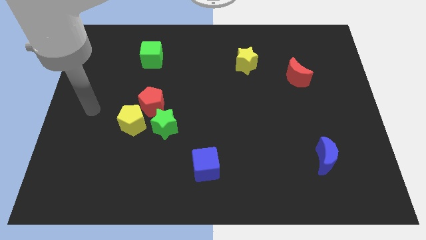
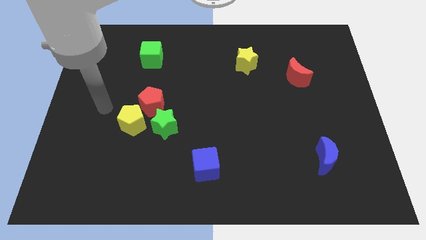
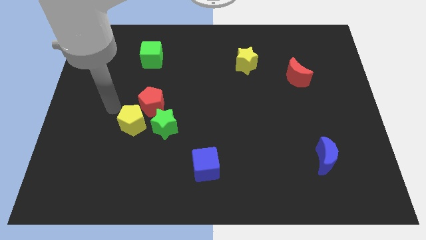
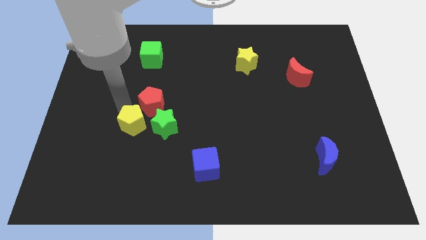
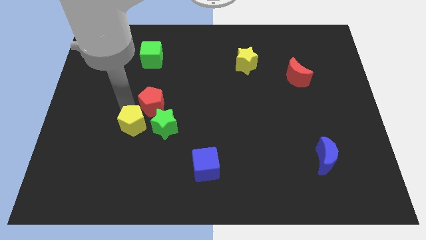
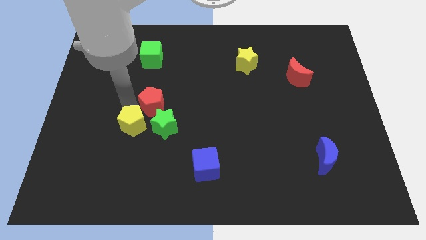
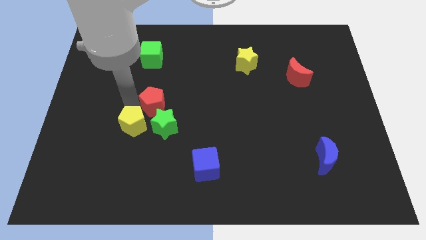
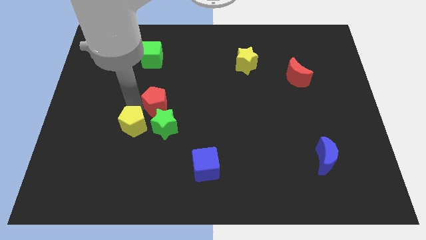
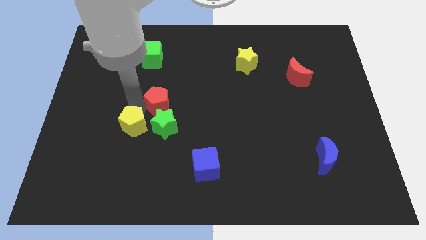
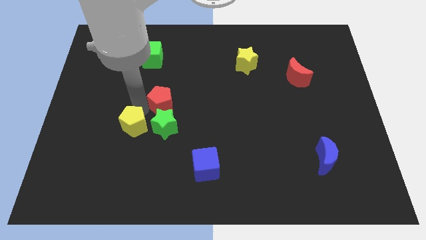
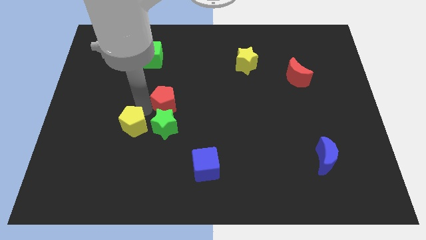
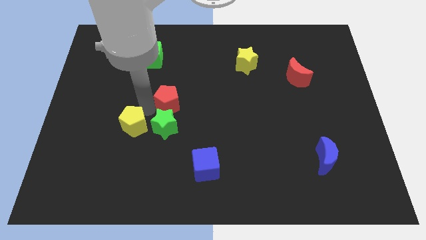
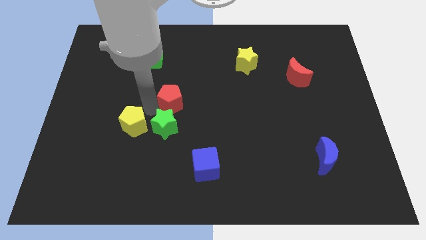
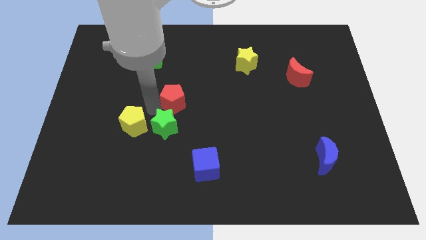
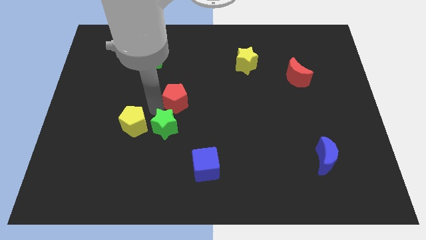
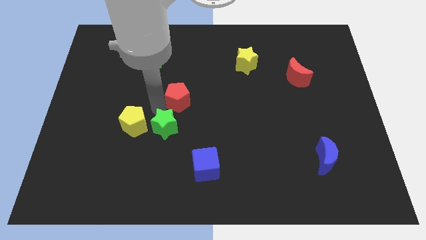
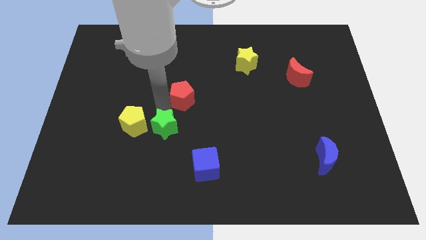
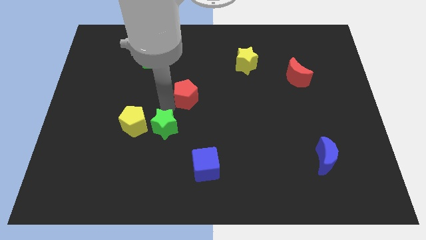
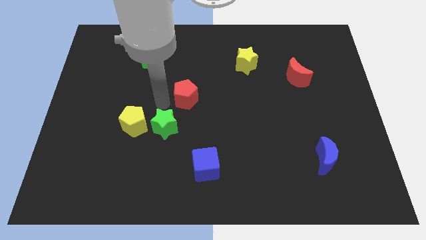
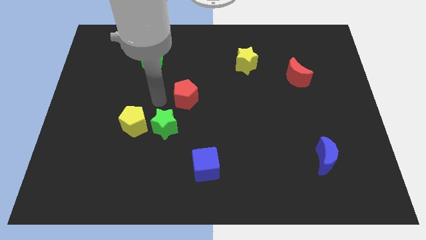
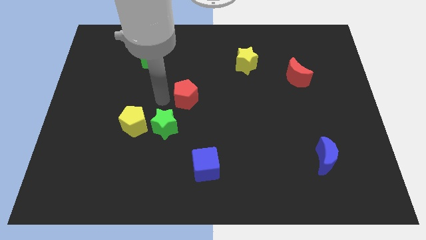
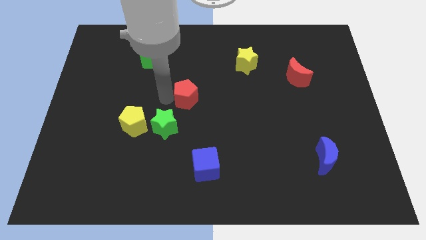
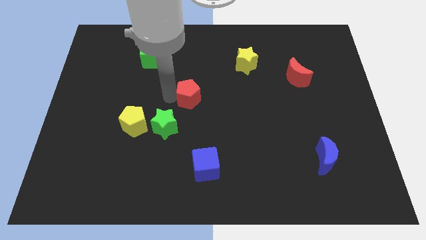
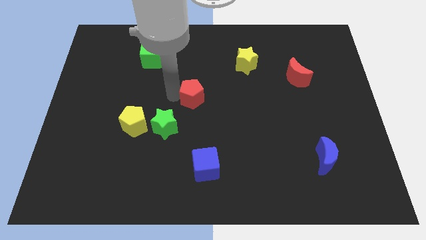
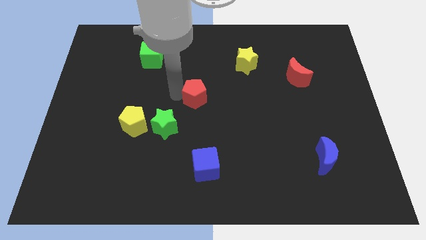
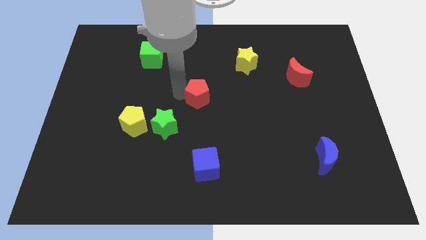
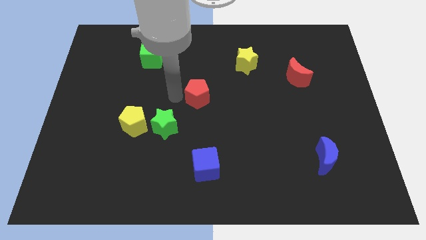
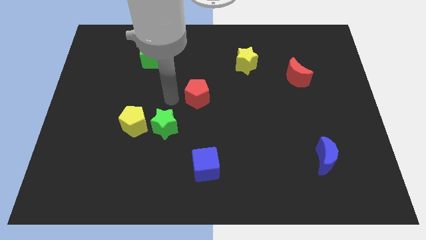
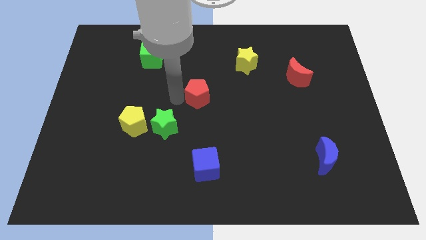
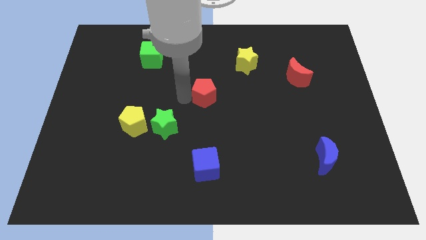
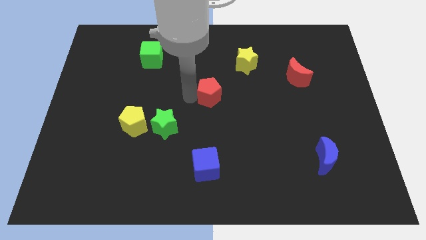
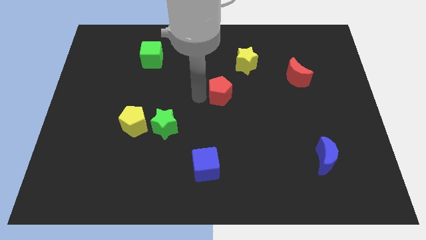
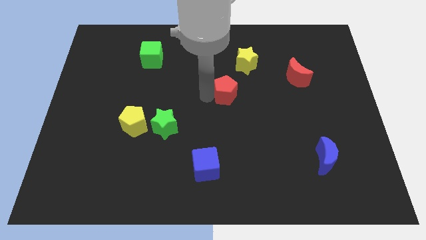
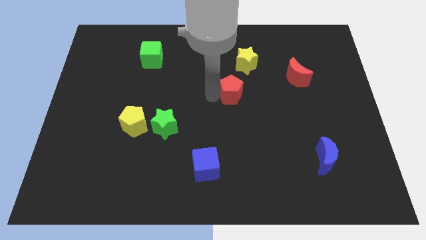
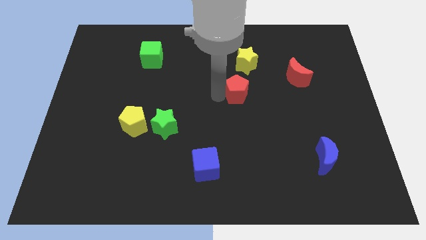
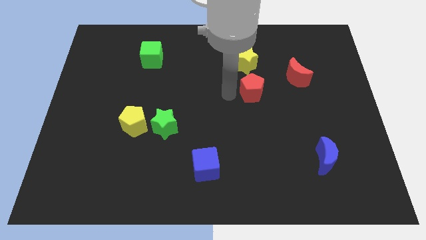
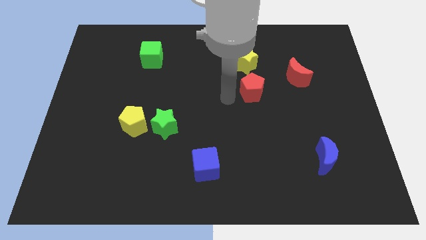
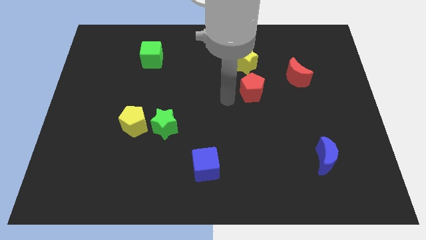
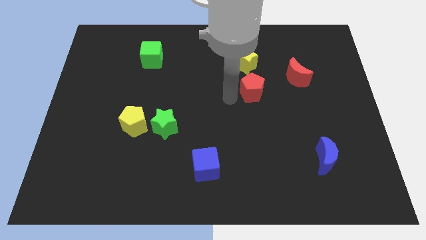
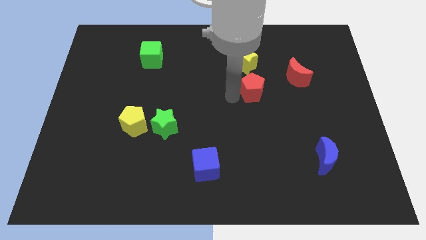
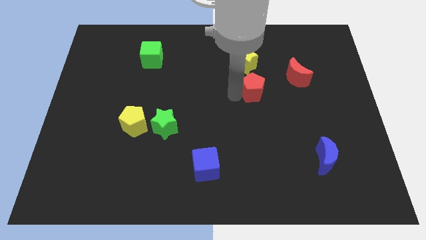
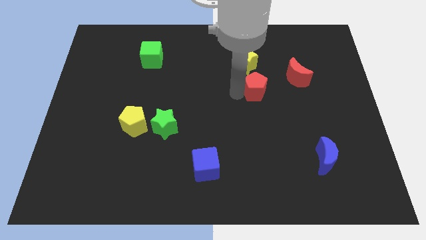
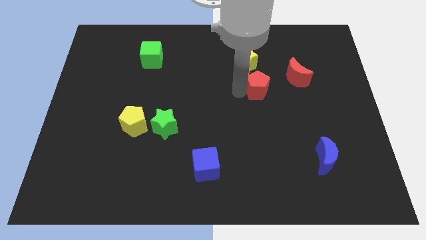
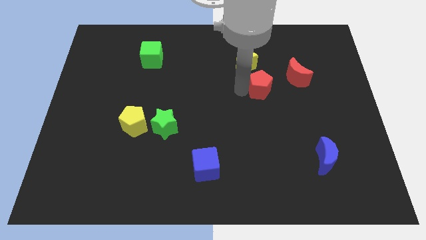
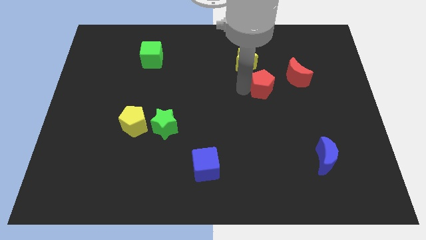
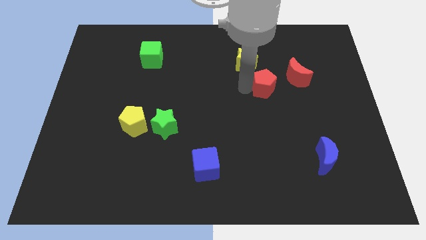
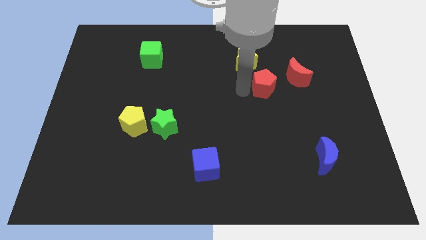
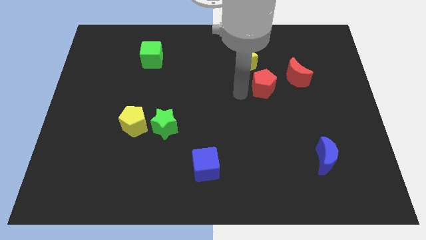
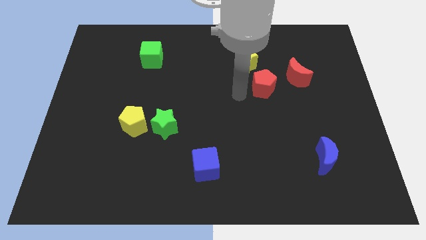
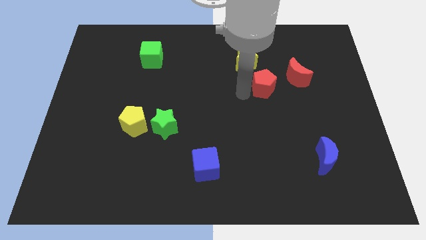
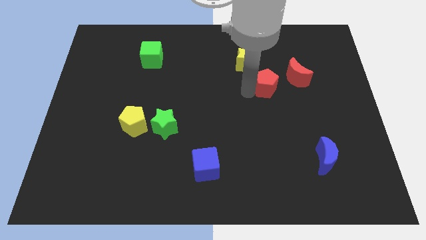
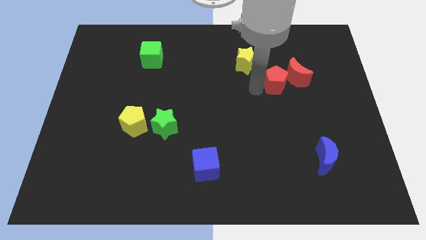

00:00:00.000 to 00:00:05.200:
put the red pentagon towards the red moon

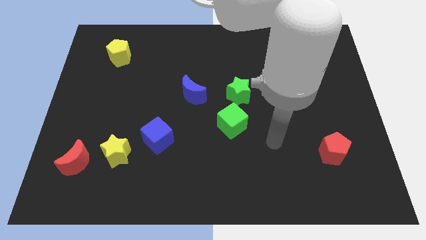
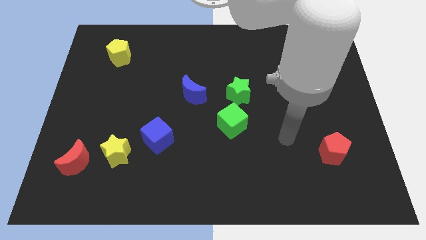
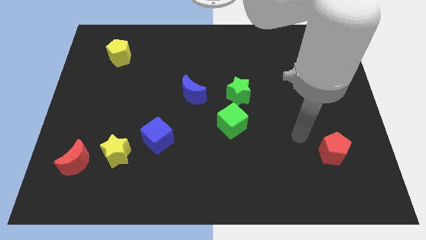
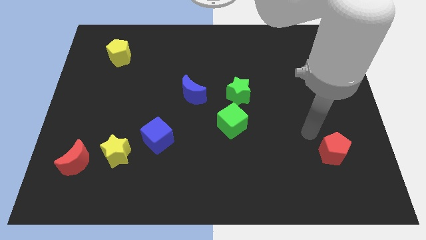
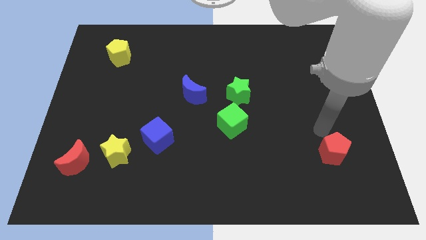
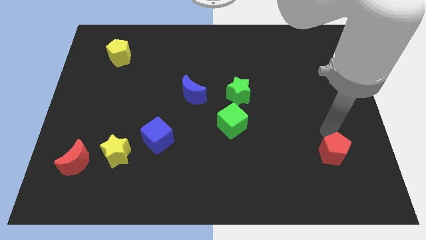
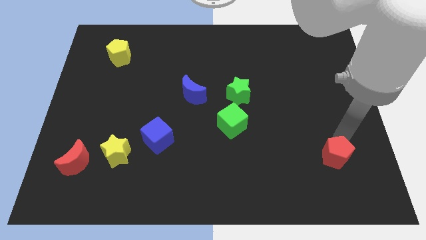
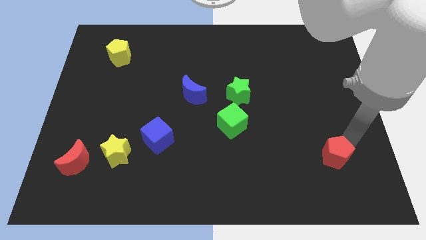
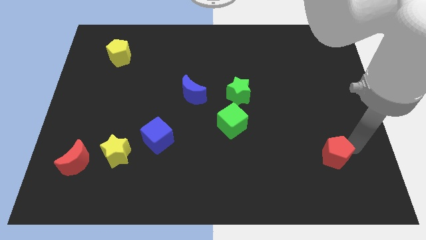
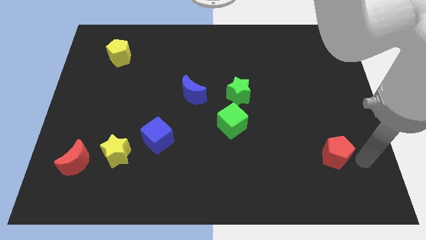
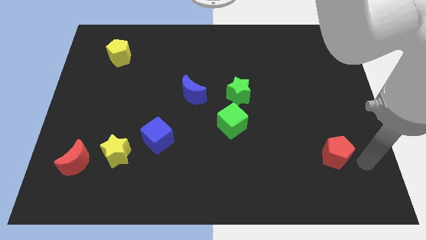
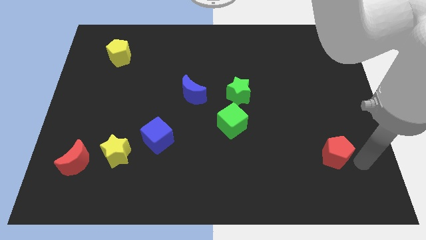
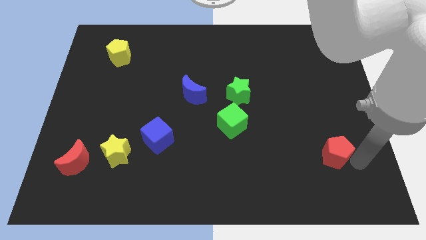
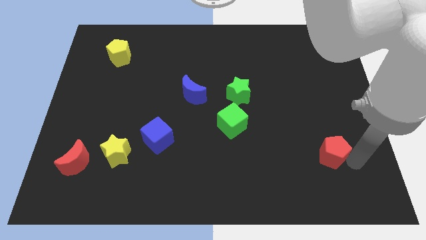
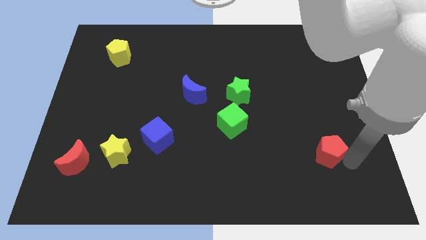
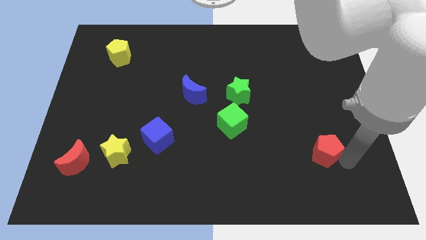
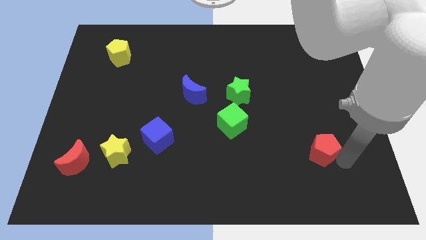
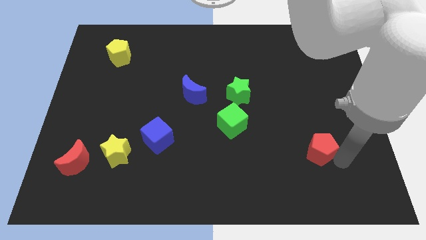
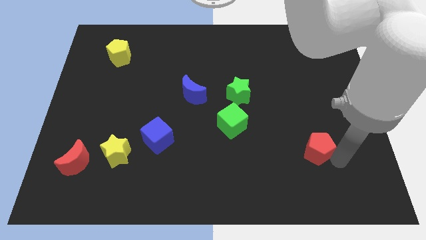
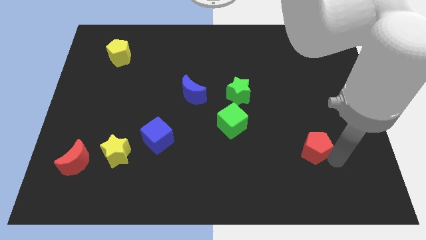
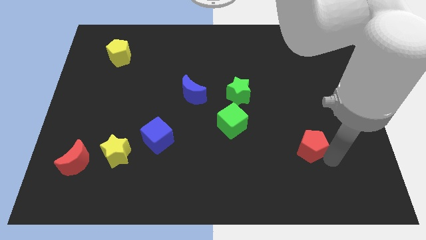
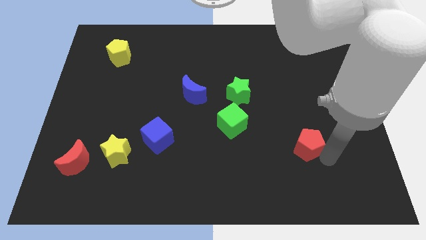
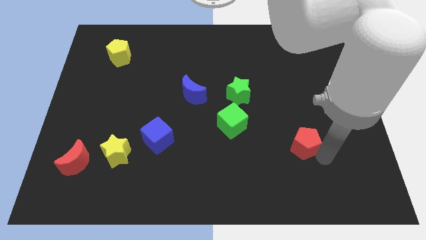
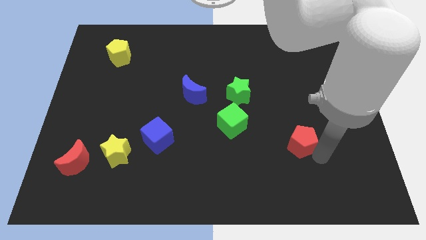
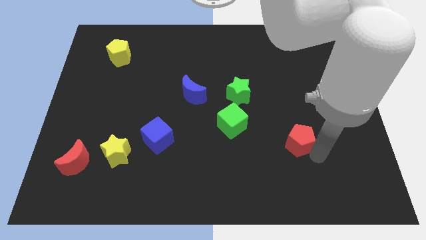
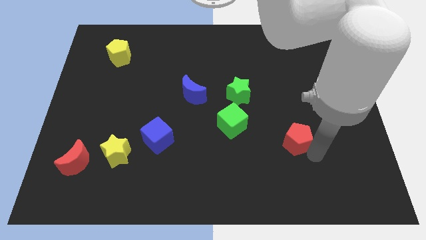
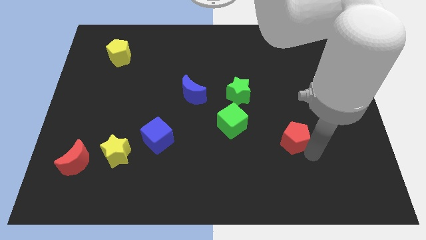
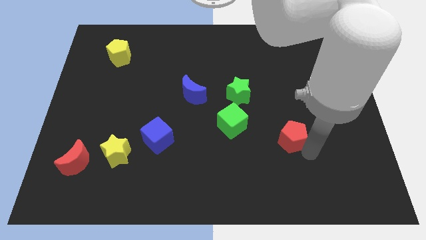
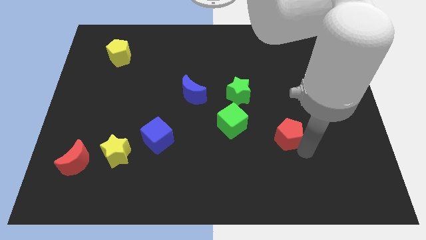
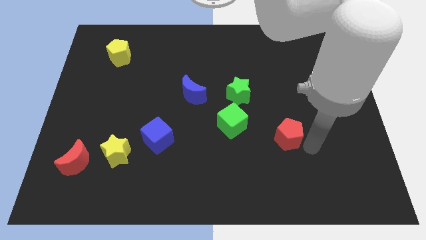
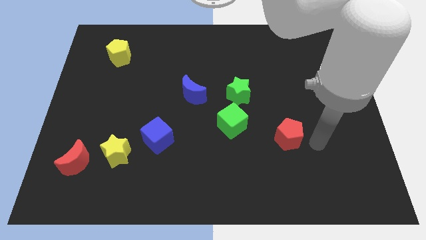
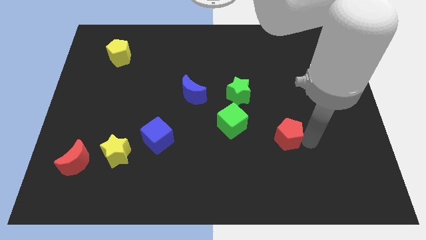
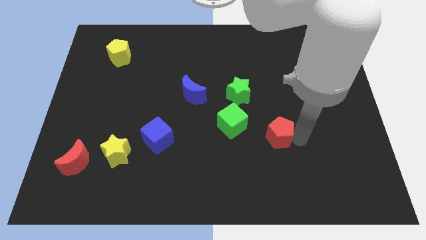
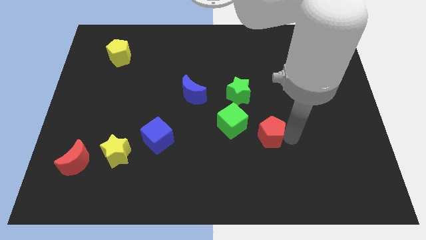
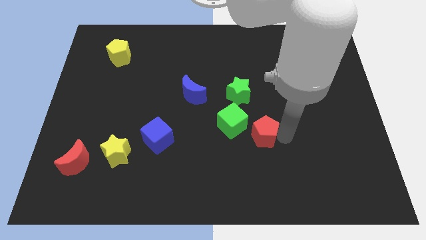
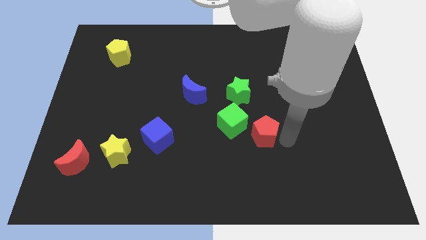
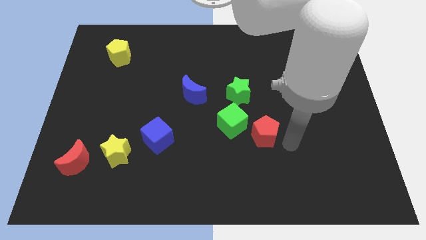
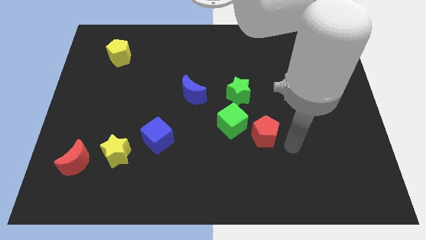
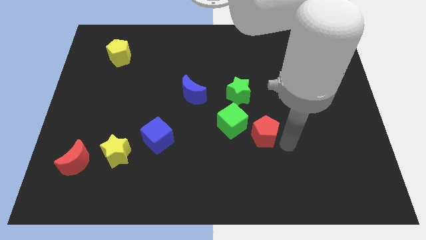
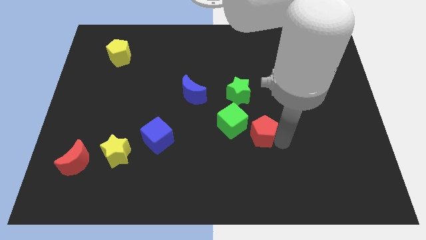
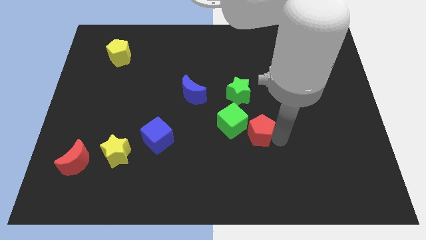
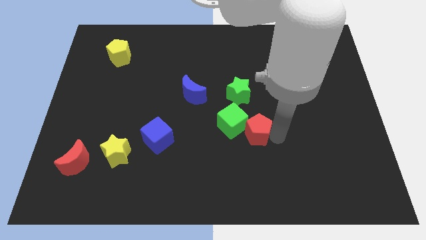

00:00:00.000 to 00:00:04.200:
slide the red pentagon next to the green cube
